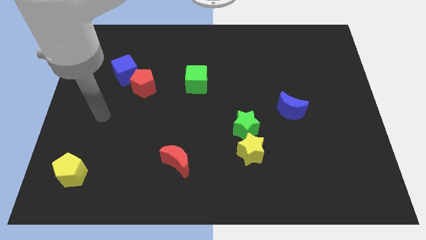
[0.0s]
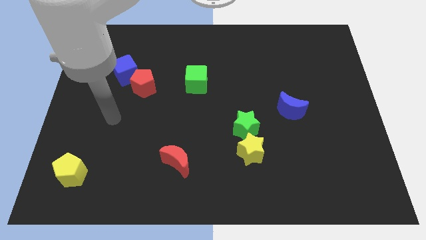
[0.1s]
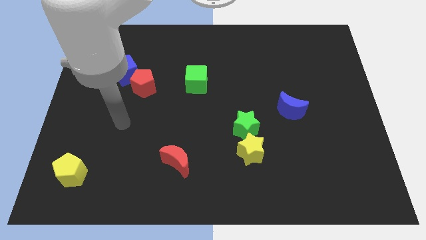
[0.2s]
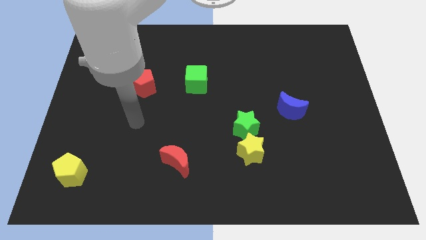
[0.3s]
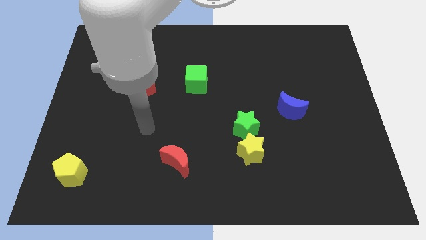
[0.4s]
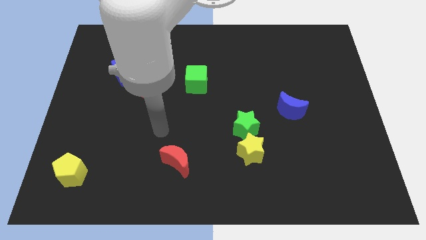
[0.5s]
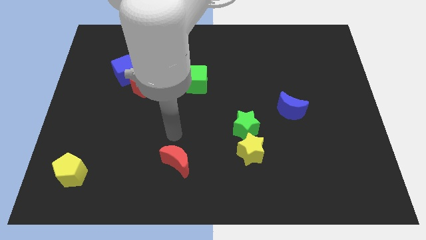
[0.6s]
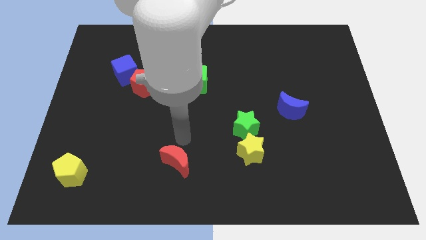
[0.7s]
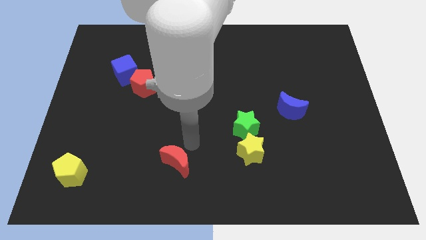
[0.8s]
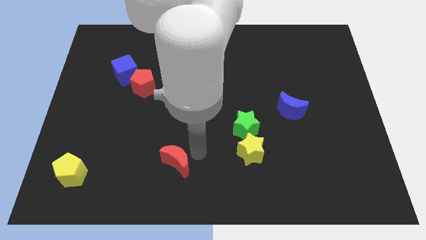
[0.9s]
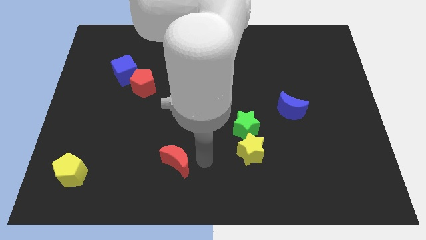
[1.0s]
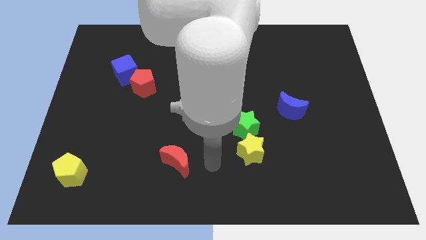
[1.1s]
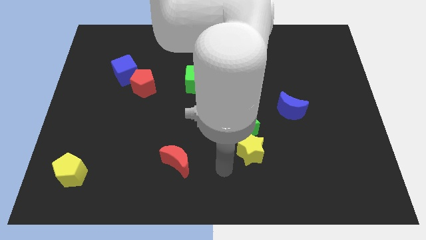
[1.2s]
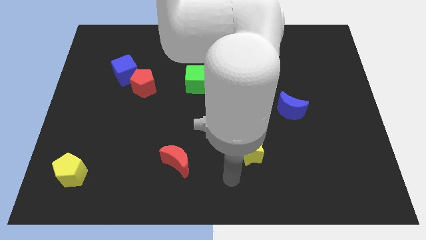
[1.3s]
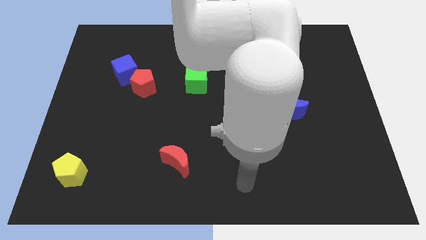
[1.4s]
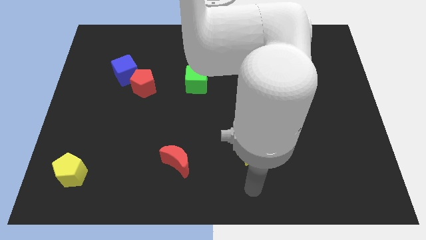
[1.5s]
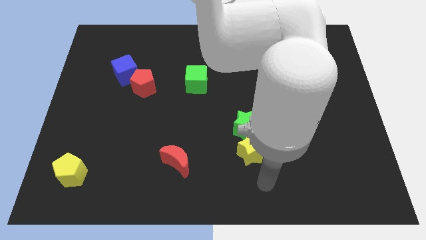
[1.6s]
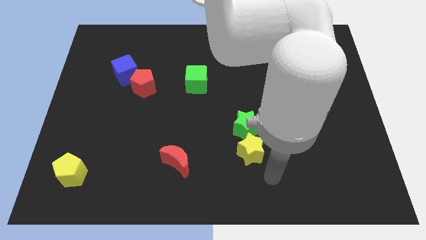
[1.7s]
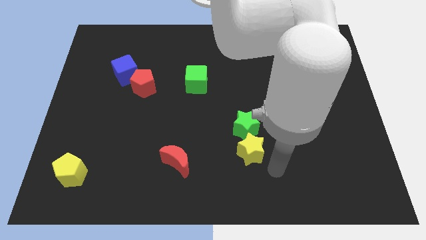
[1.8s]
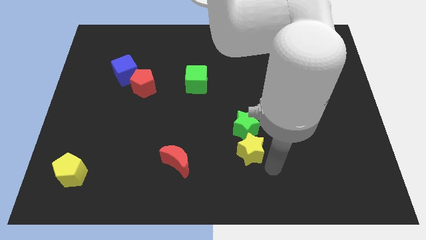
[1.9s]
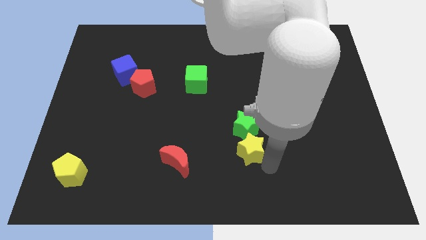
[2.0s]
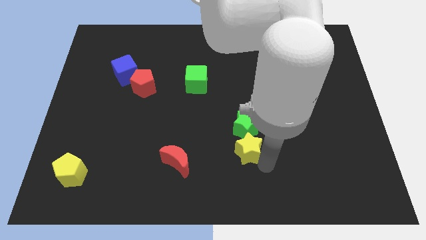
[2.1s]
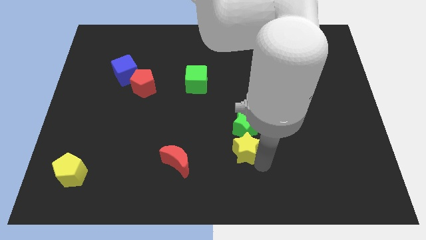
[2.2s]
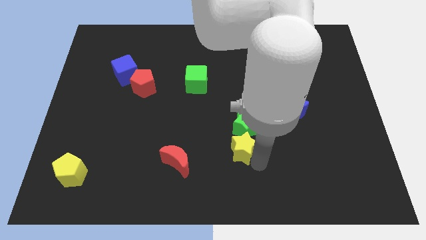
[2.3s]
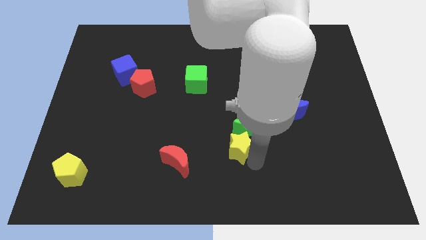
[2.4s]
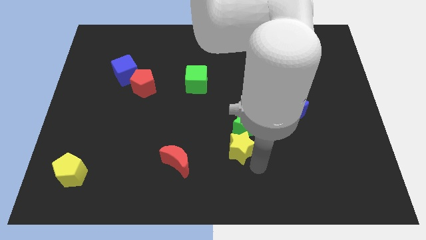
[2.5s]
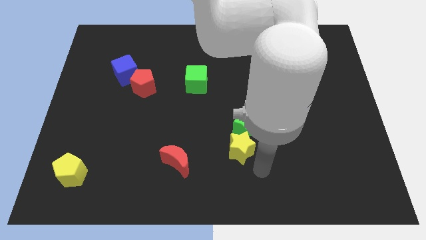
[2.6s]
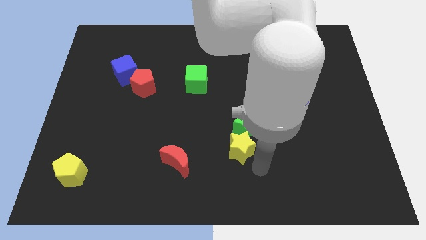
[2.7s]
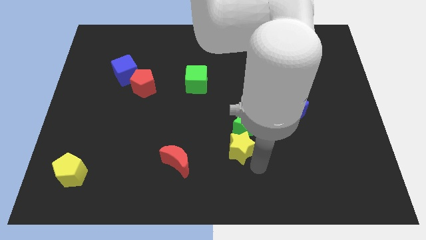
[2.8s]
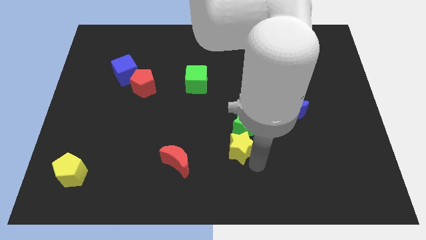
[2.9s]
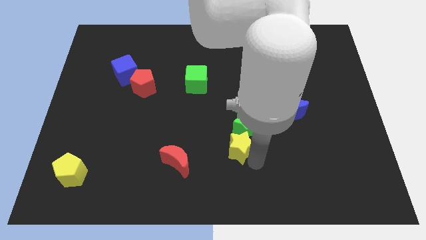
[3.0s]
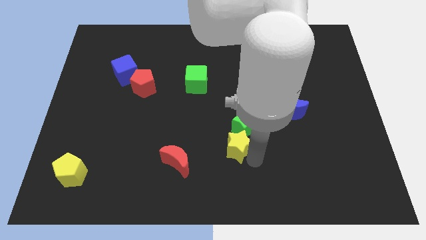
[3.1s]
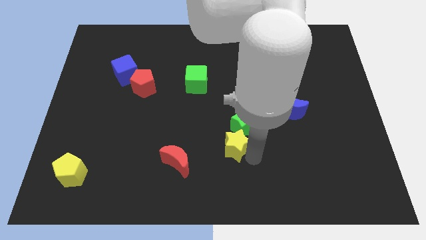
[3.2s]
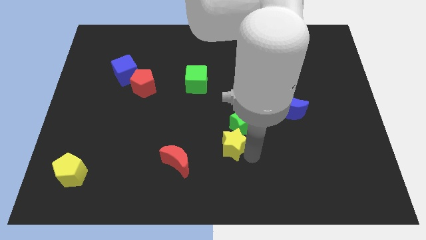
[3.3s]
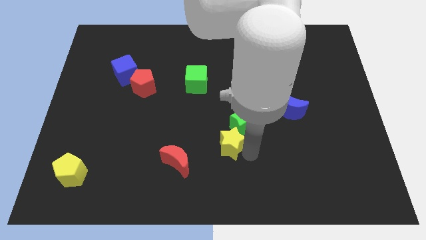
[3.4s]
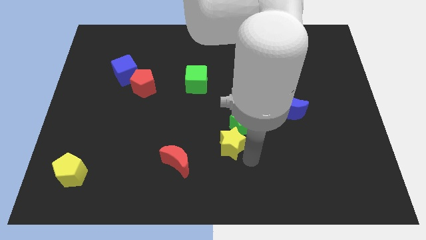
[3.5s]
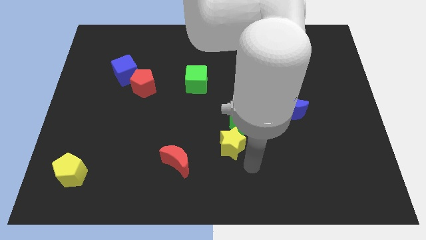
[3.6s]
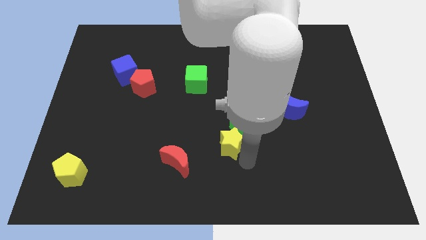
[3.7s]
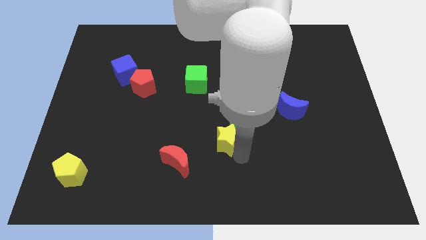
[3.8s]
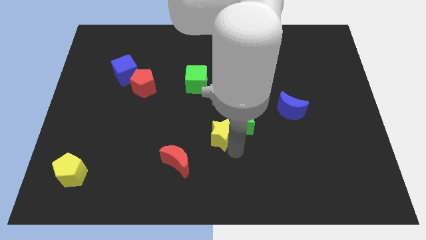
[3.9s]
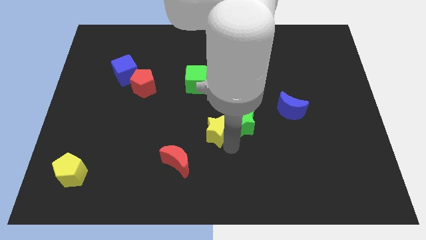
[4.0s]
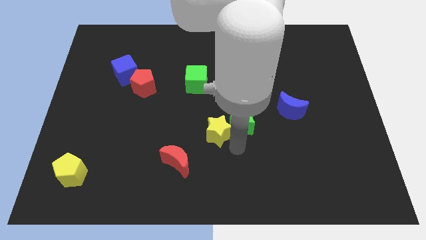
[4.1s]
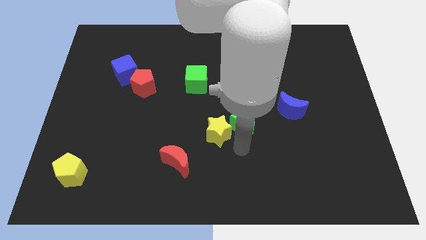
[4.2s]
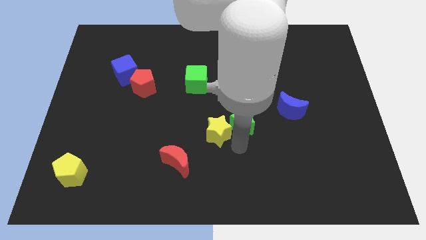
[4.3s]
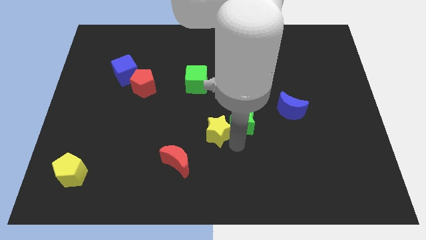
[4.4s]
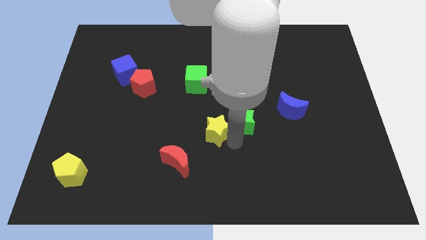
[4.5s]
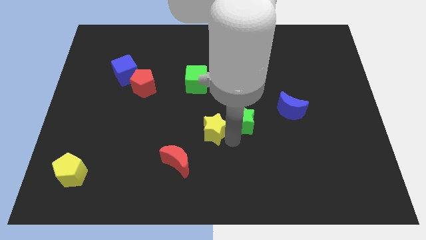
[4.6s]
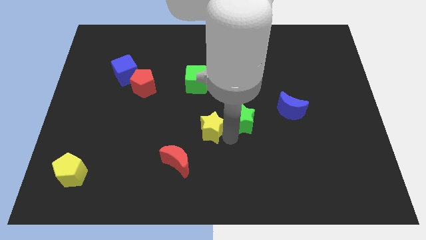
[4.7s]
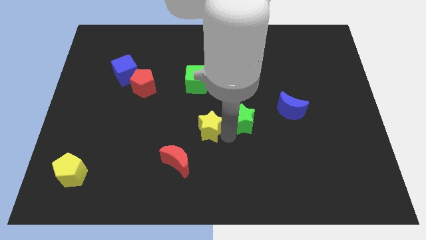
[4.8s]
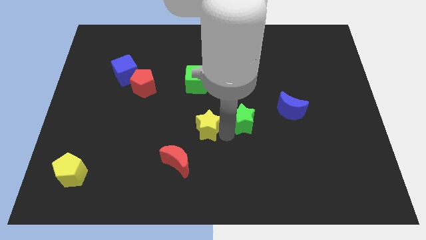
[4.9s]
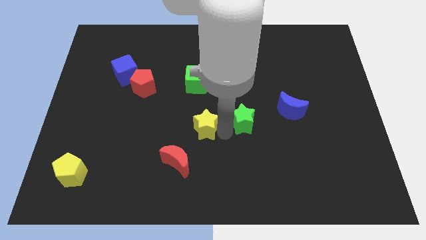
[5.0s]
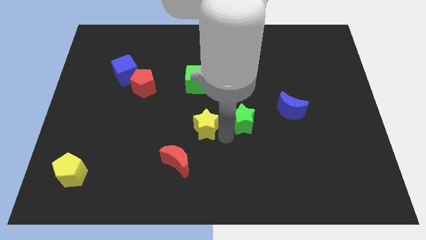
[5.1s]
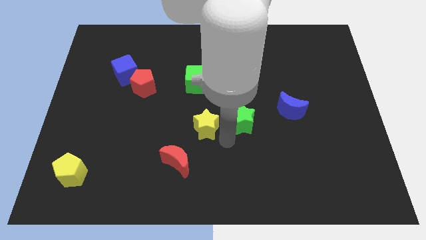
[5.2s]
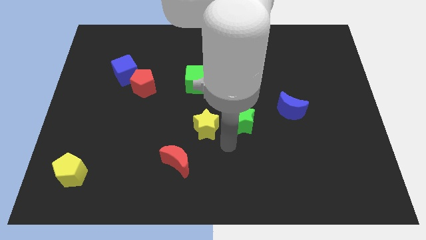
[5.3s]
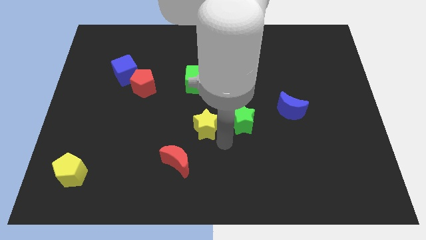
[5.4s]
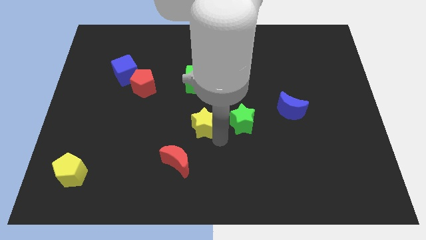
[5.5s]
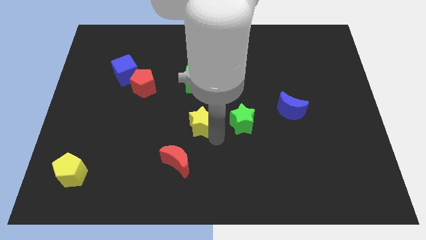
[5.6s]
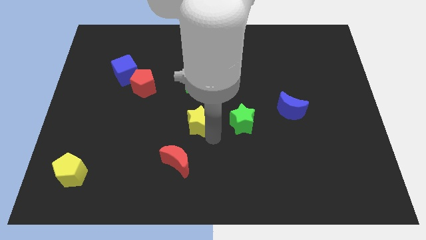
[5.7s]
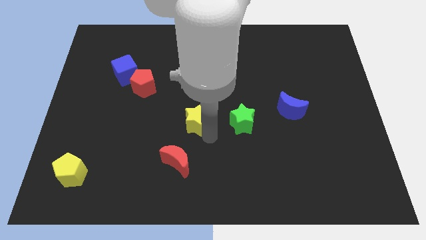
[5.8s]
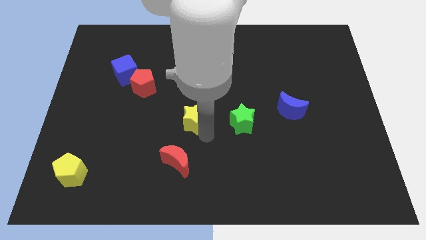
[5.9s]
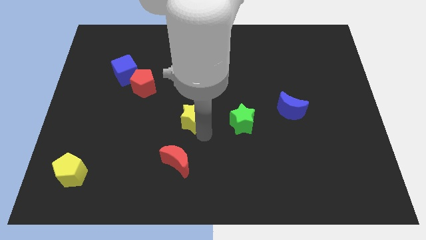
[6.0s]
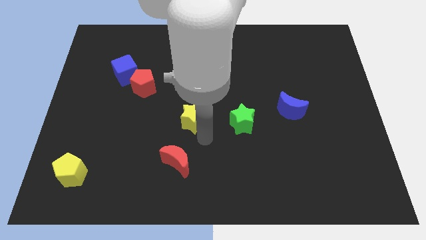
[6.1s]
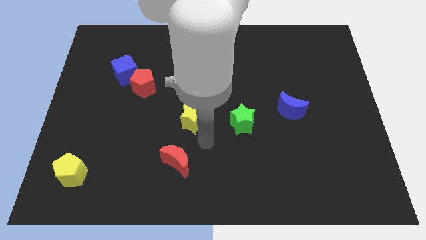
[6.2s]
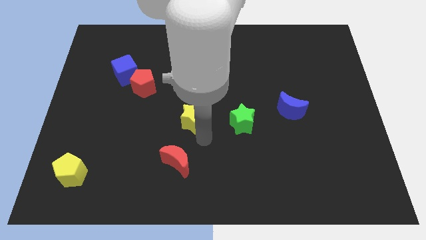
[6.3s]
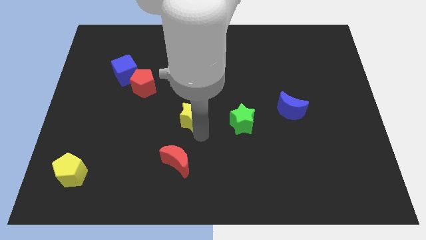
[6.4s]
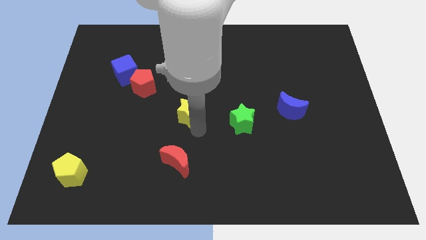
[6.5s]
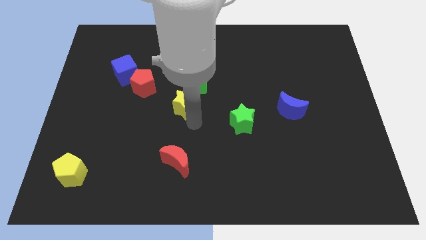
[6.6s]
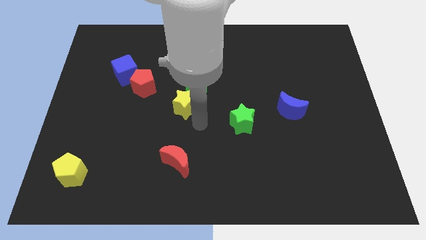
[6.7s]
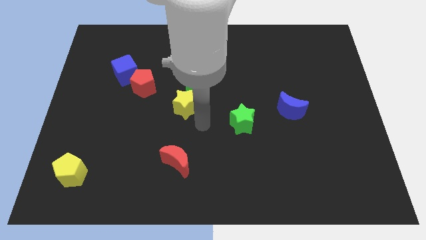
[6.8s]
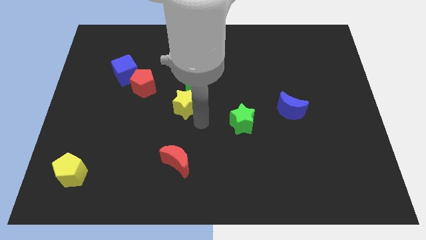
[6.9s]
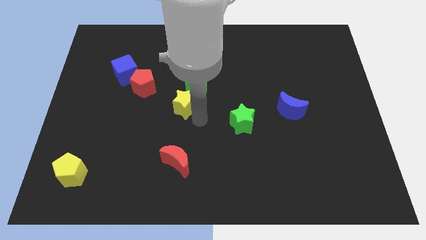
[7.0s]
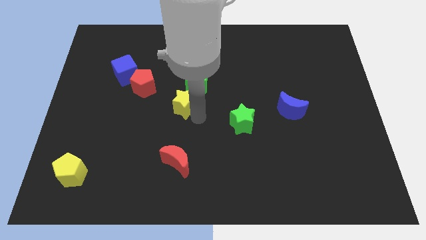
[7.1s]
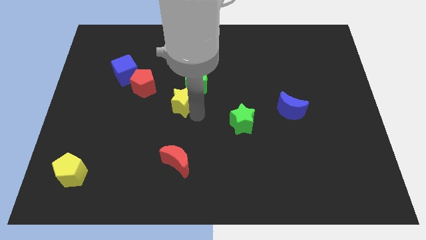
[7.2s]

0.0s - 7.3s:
slide the yellow star up and then left

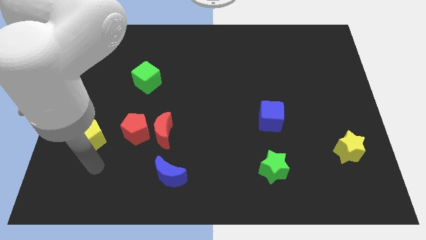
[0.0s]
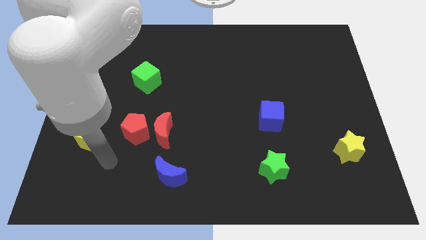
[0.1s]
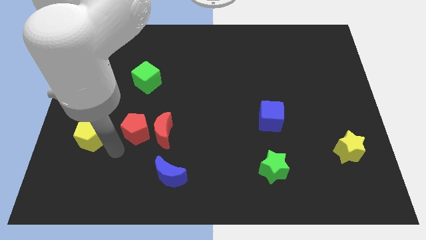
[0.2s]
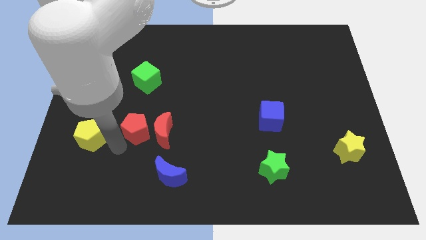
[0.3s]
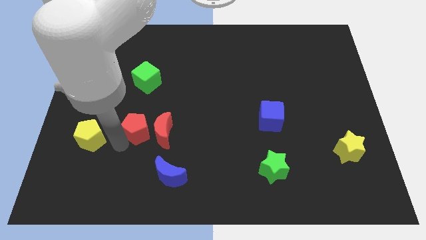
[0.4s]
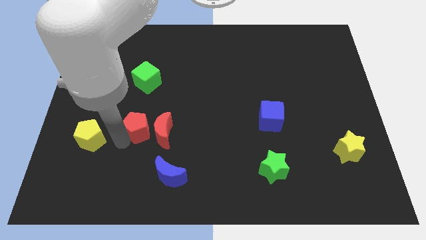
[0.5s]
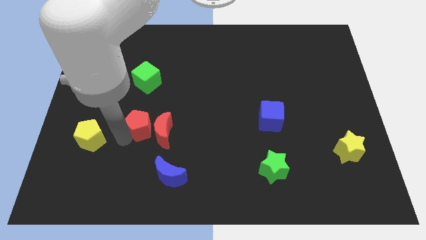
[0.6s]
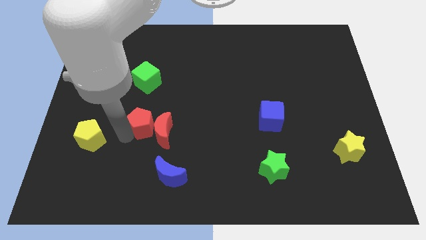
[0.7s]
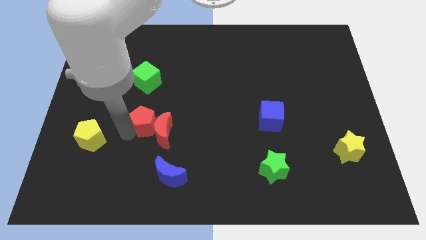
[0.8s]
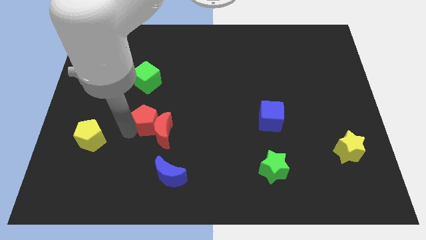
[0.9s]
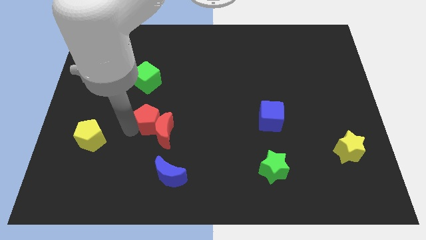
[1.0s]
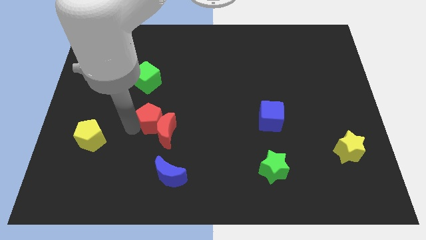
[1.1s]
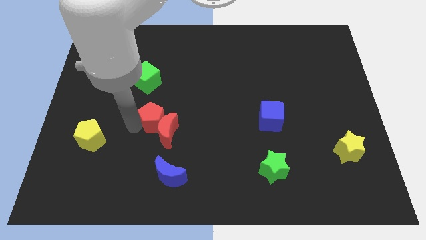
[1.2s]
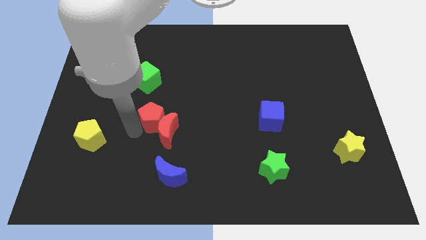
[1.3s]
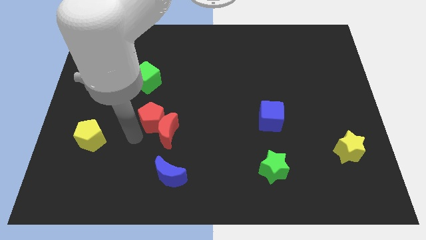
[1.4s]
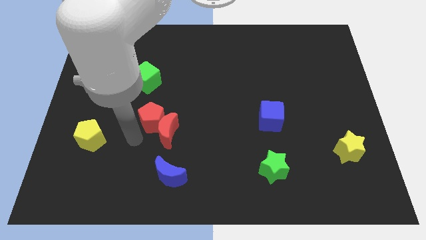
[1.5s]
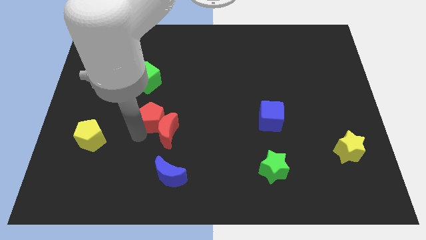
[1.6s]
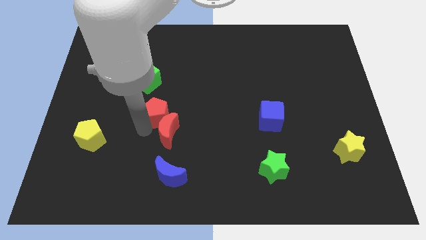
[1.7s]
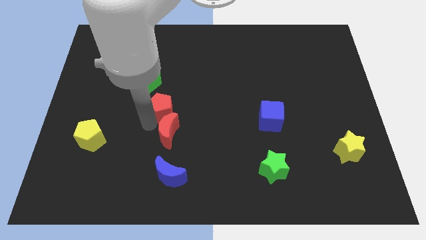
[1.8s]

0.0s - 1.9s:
slightly slide the red pentagon up and right diagonally
